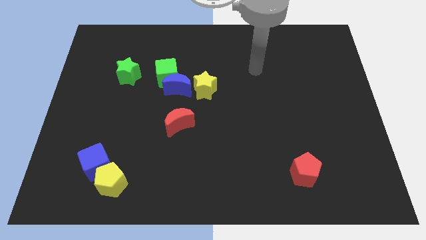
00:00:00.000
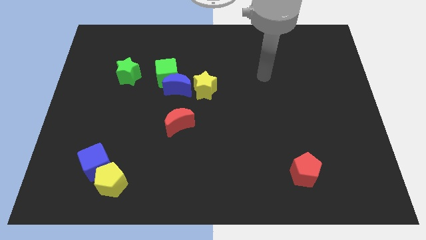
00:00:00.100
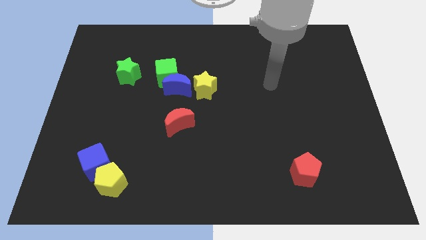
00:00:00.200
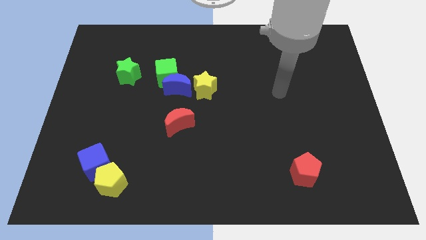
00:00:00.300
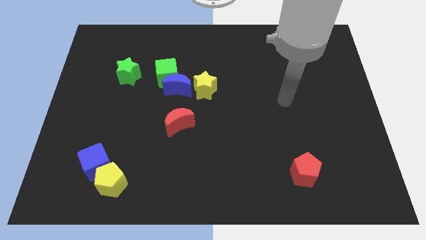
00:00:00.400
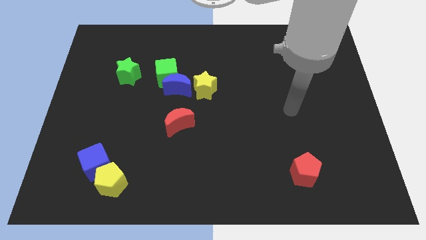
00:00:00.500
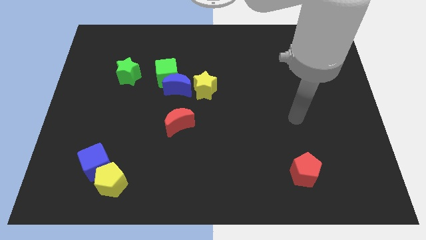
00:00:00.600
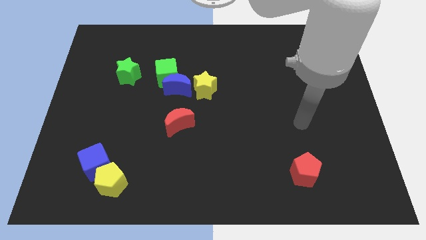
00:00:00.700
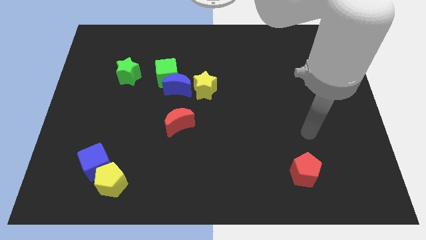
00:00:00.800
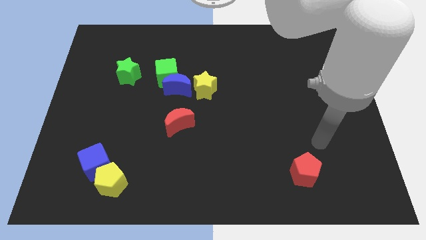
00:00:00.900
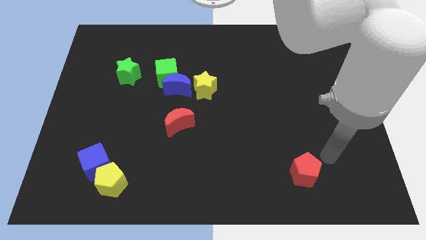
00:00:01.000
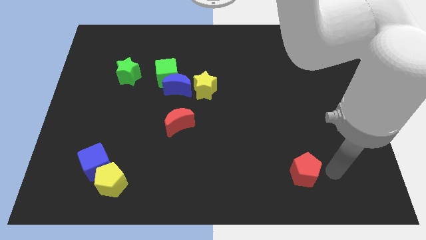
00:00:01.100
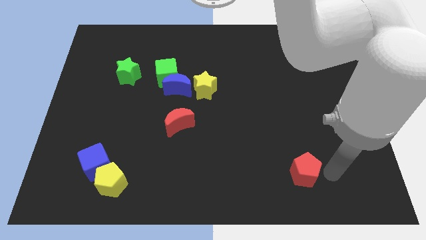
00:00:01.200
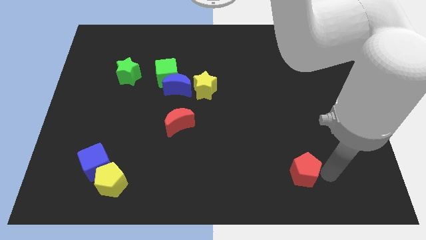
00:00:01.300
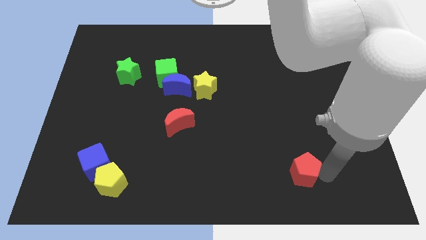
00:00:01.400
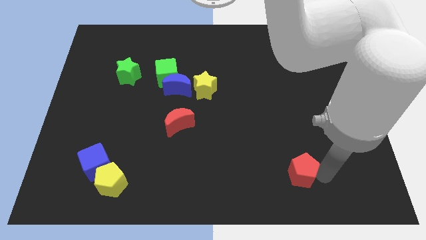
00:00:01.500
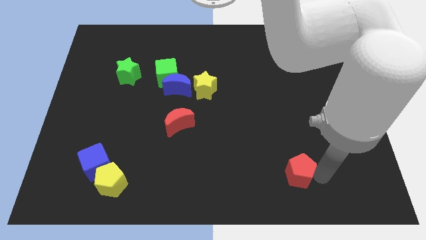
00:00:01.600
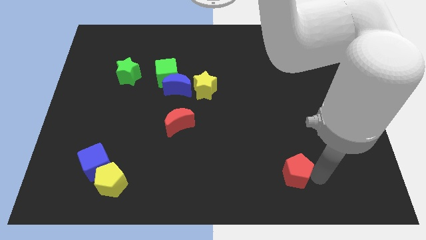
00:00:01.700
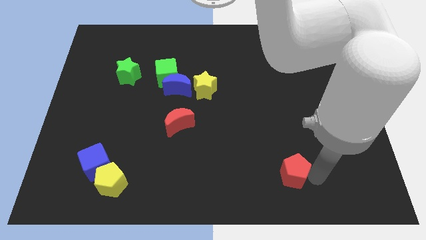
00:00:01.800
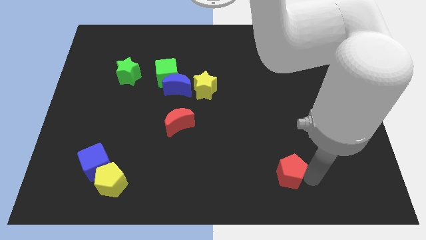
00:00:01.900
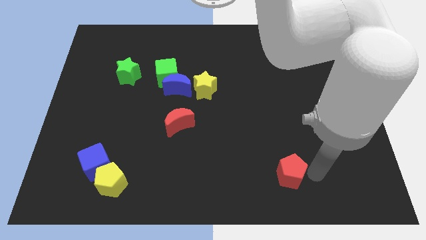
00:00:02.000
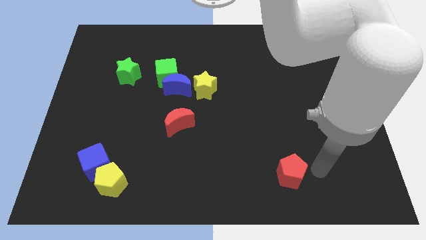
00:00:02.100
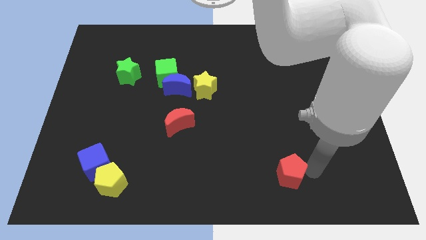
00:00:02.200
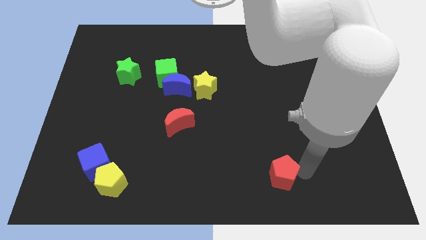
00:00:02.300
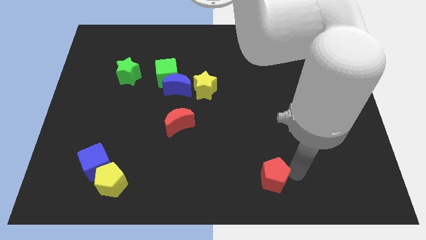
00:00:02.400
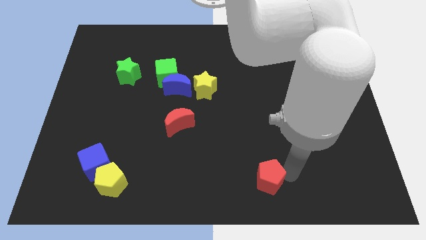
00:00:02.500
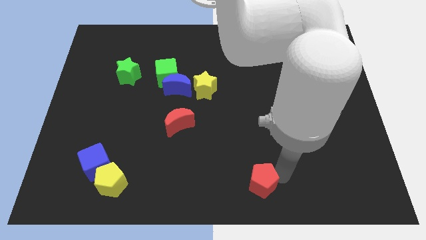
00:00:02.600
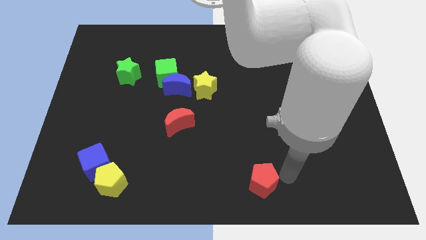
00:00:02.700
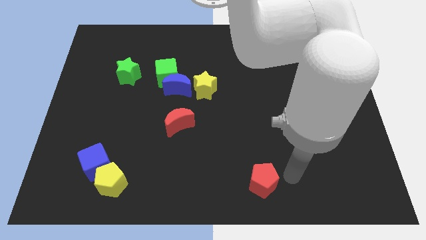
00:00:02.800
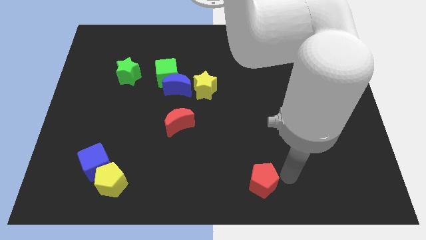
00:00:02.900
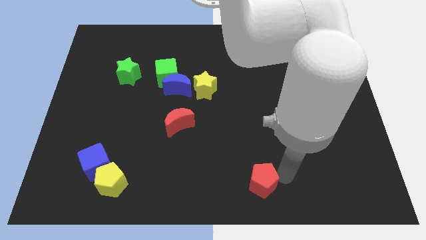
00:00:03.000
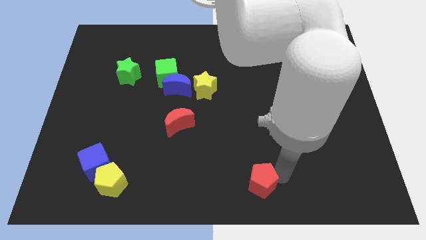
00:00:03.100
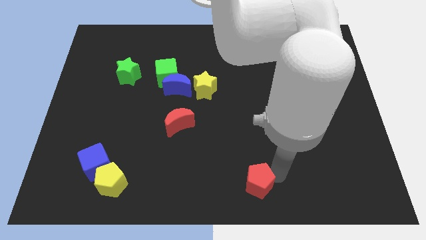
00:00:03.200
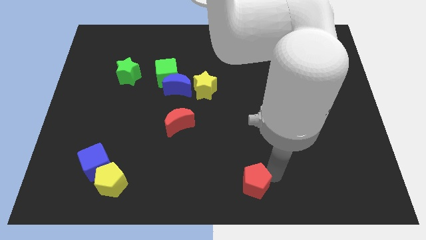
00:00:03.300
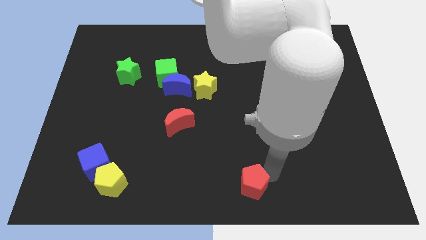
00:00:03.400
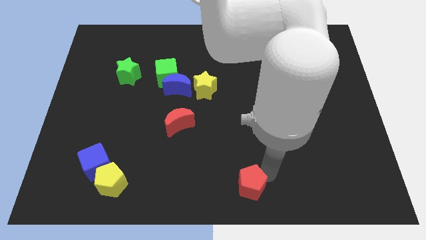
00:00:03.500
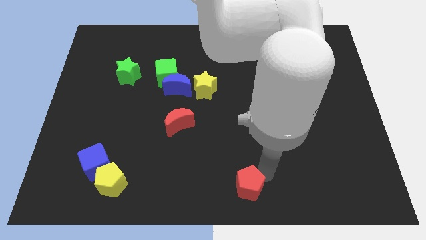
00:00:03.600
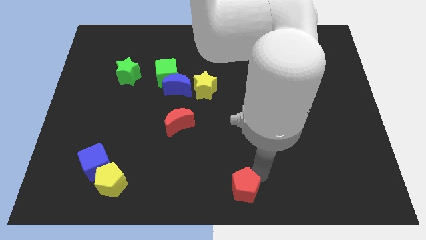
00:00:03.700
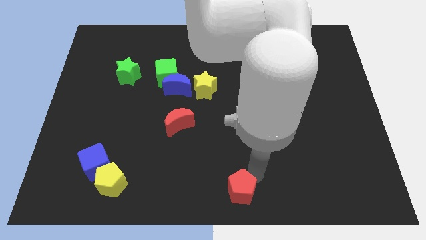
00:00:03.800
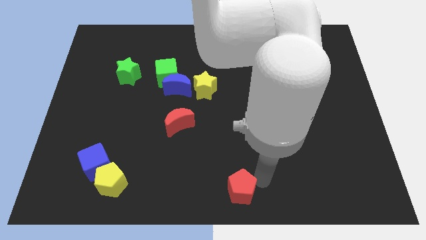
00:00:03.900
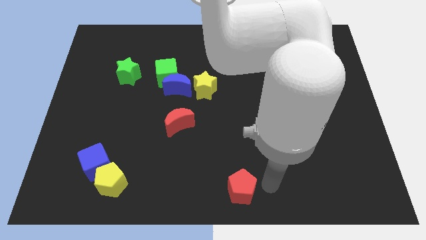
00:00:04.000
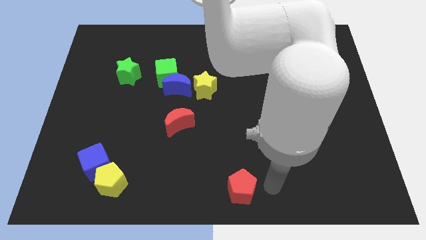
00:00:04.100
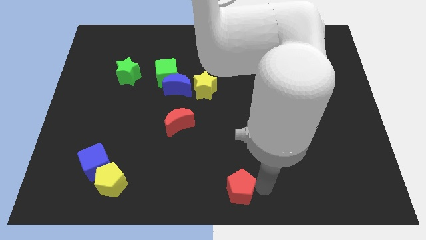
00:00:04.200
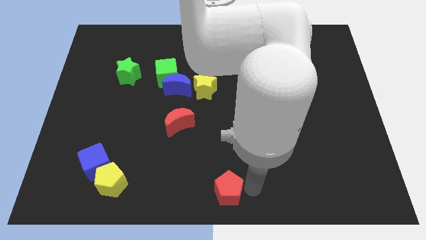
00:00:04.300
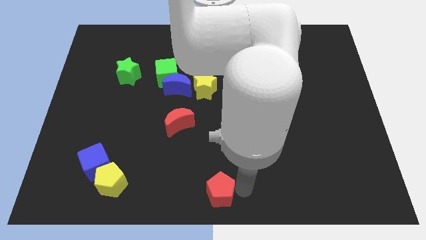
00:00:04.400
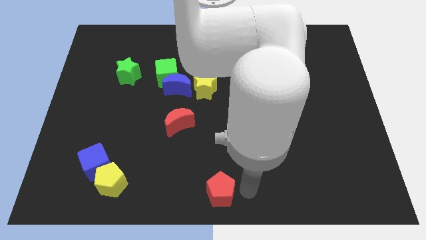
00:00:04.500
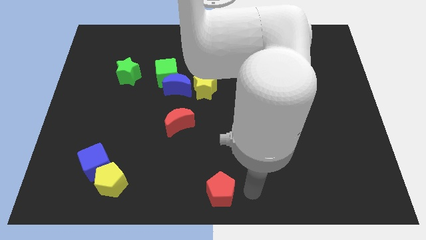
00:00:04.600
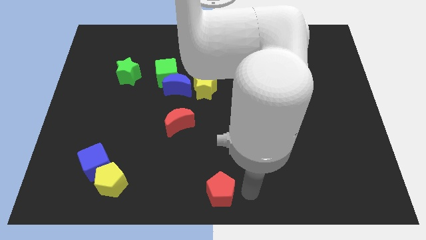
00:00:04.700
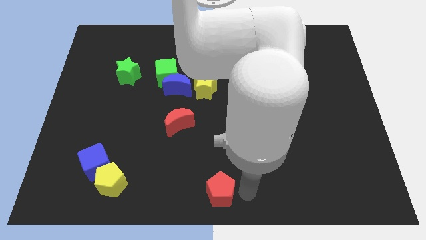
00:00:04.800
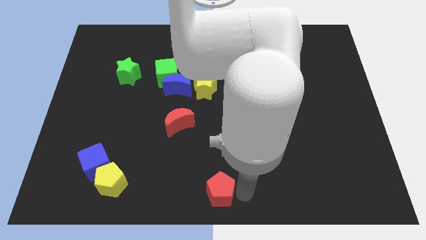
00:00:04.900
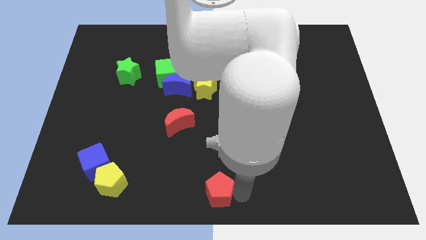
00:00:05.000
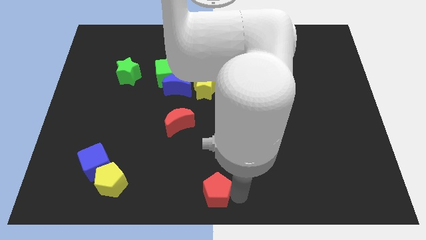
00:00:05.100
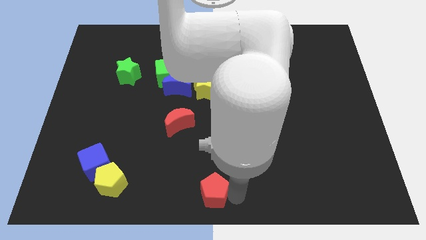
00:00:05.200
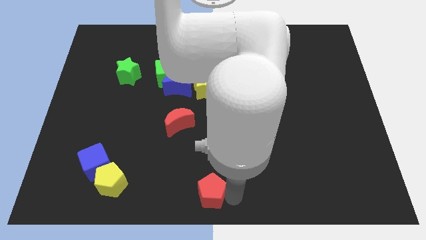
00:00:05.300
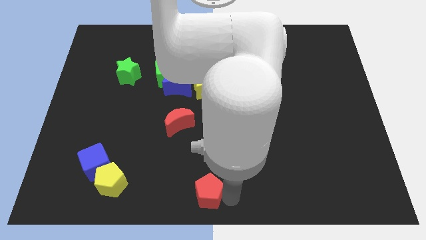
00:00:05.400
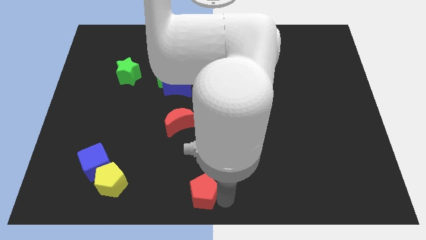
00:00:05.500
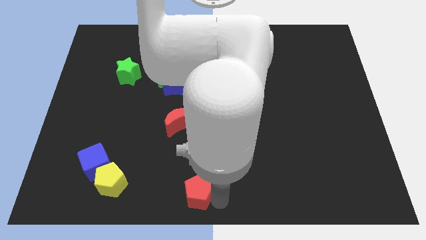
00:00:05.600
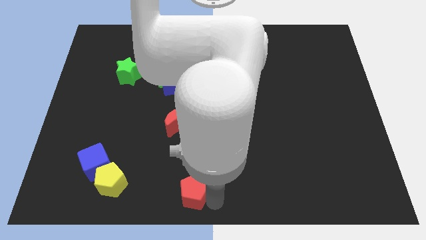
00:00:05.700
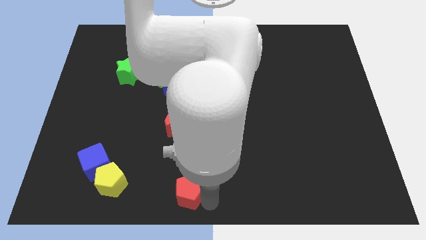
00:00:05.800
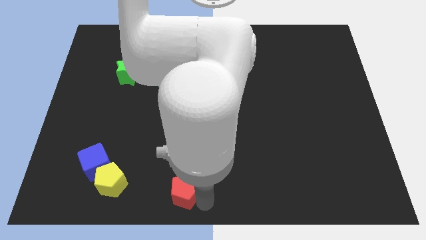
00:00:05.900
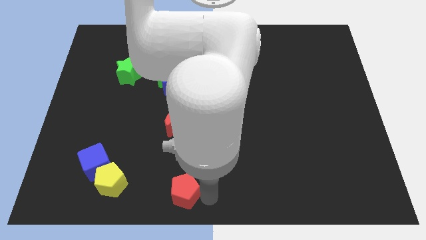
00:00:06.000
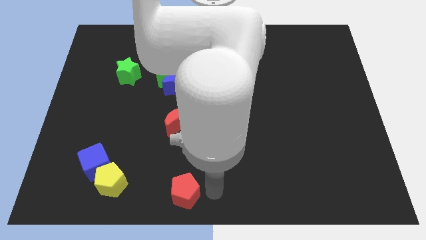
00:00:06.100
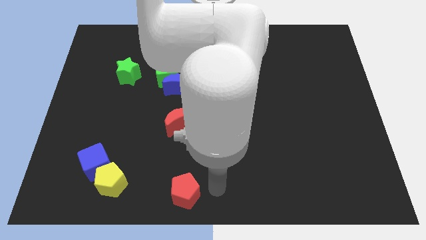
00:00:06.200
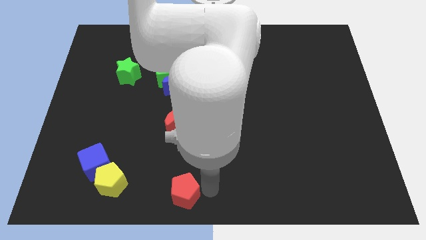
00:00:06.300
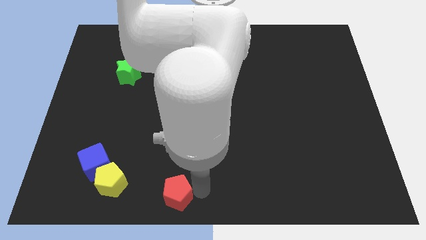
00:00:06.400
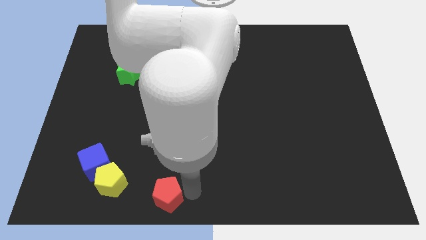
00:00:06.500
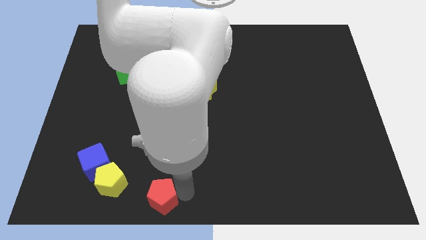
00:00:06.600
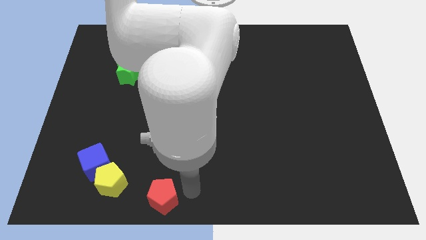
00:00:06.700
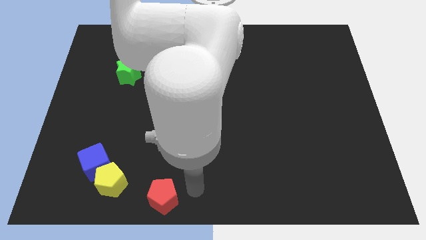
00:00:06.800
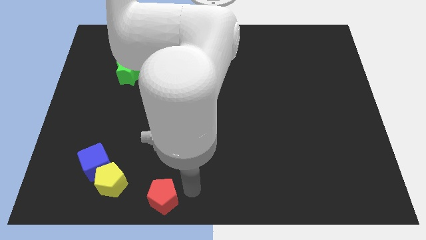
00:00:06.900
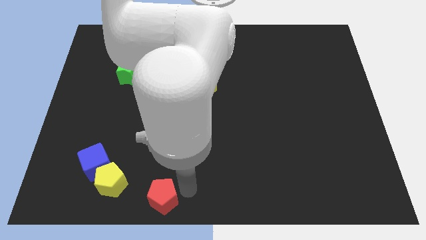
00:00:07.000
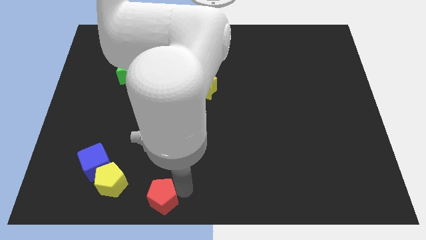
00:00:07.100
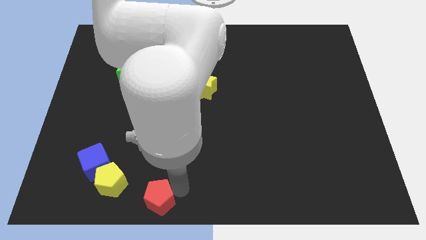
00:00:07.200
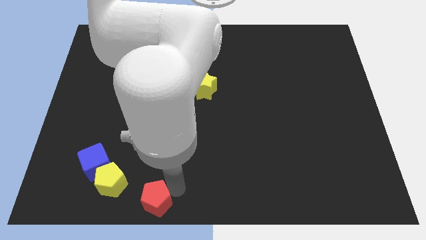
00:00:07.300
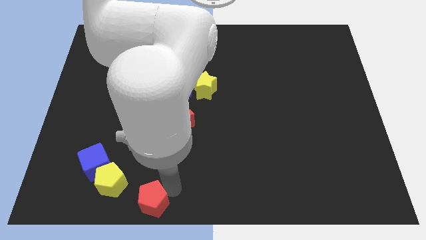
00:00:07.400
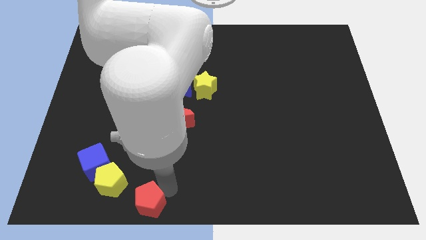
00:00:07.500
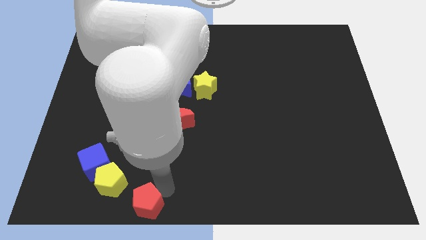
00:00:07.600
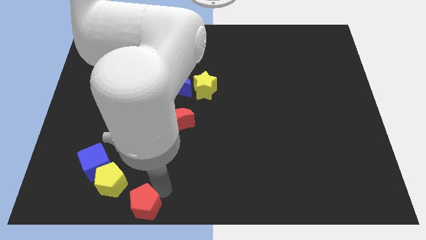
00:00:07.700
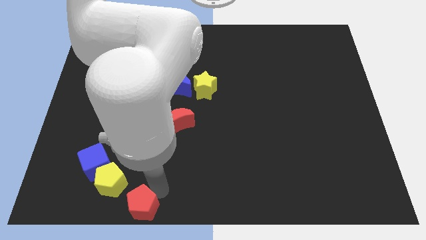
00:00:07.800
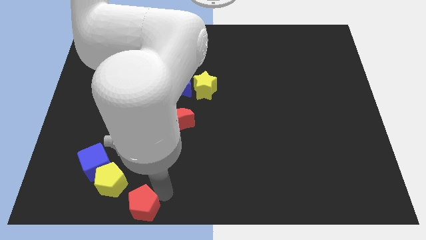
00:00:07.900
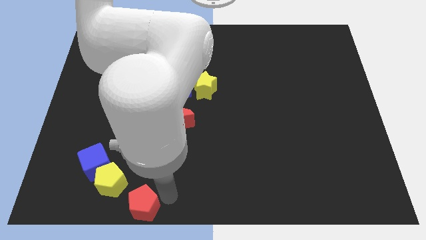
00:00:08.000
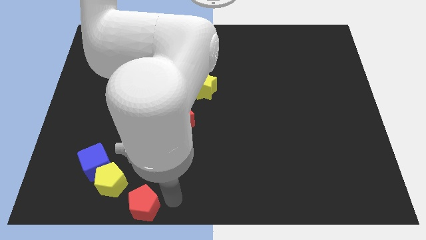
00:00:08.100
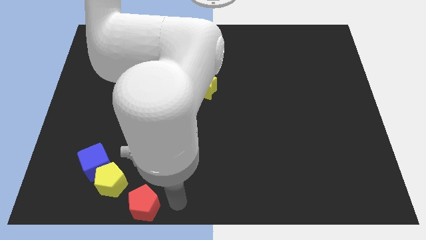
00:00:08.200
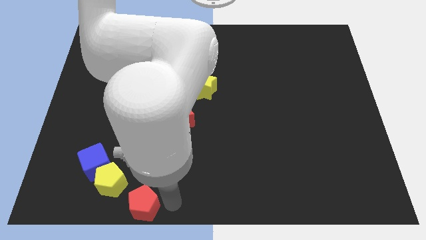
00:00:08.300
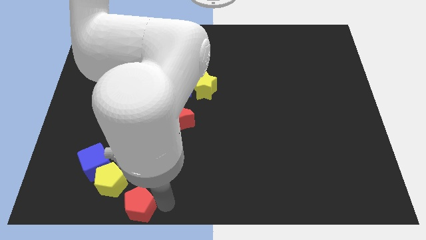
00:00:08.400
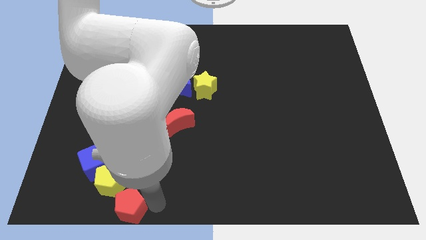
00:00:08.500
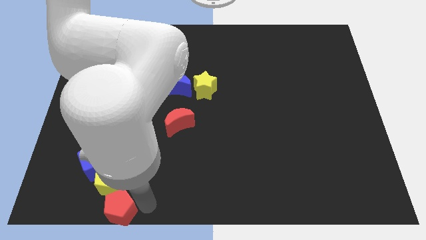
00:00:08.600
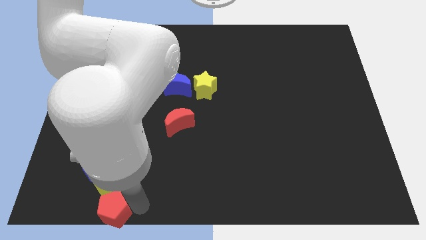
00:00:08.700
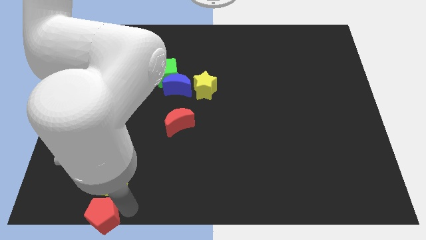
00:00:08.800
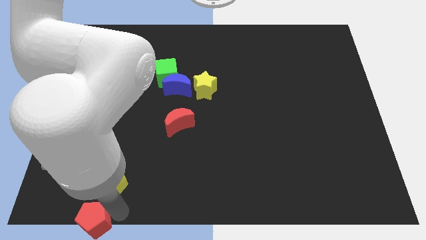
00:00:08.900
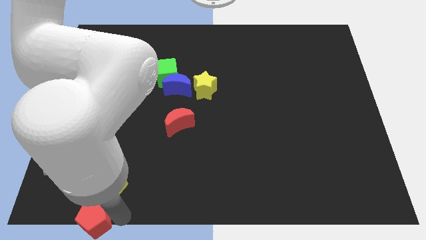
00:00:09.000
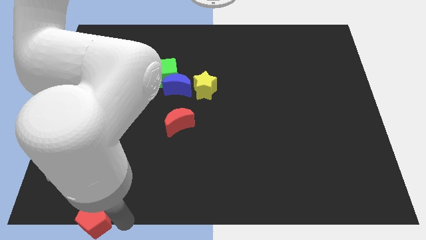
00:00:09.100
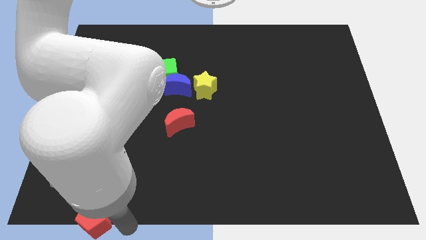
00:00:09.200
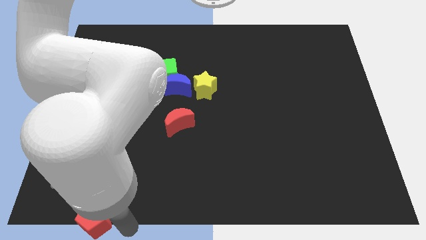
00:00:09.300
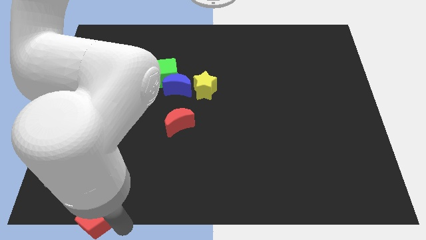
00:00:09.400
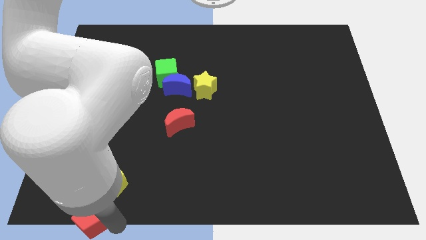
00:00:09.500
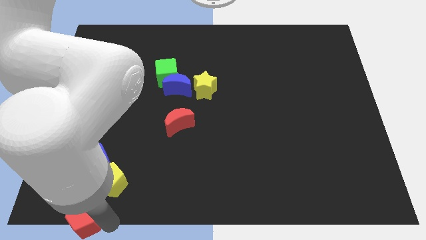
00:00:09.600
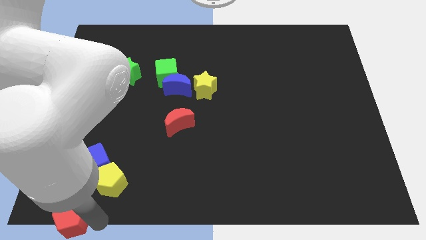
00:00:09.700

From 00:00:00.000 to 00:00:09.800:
push the red pentagon to the bottom left corner
